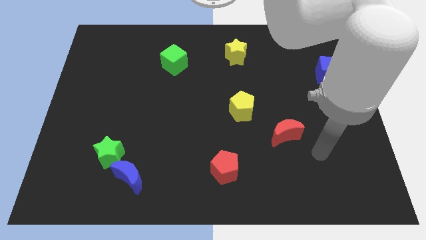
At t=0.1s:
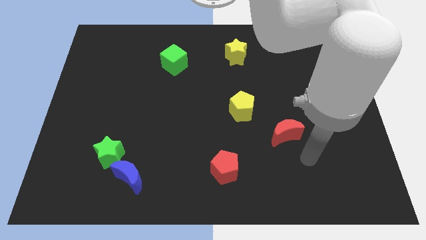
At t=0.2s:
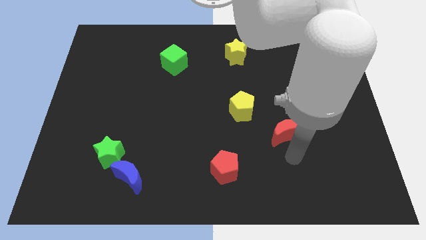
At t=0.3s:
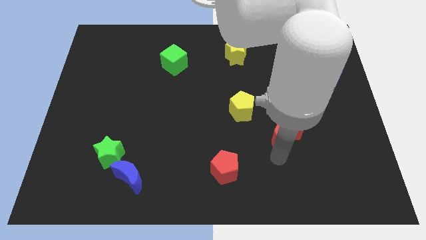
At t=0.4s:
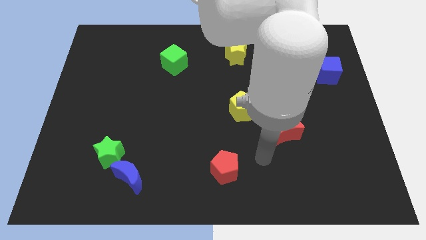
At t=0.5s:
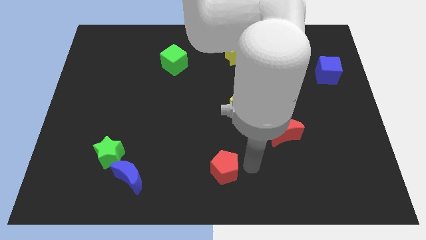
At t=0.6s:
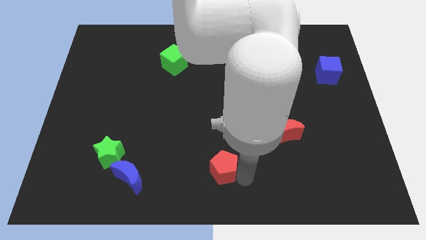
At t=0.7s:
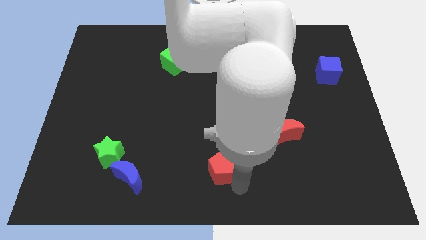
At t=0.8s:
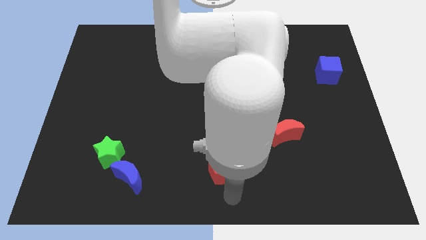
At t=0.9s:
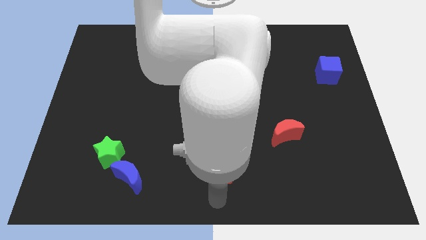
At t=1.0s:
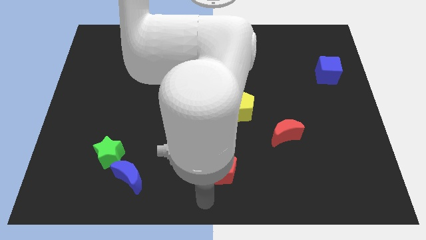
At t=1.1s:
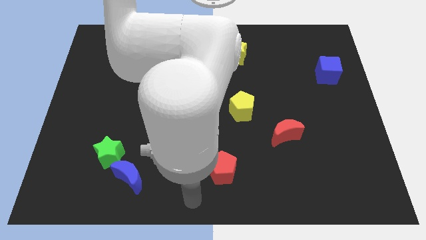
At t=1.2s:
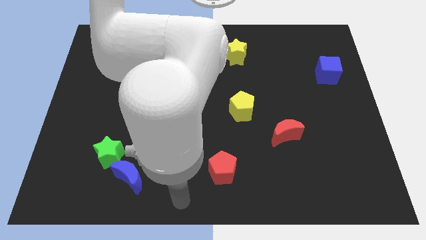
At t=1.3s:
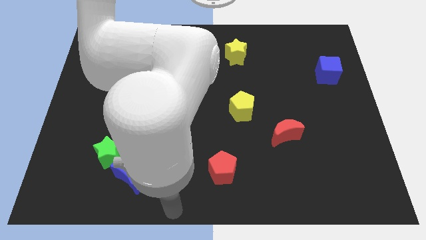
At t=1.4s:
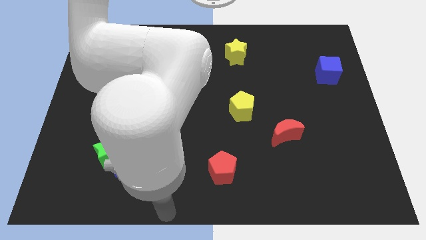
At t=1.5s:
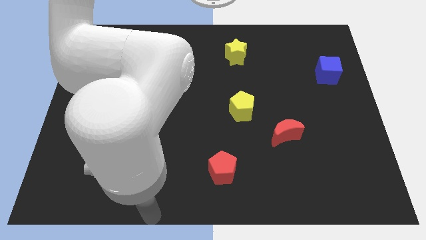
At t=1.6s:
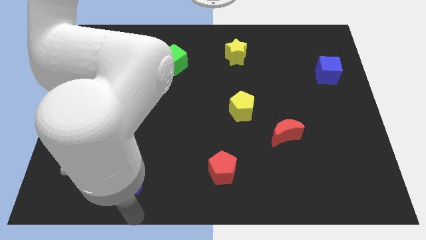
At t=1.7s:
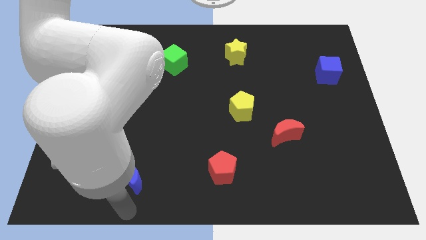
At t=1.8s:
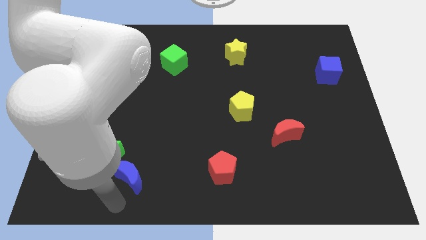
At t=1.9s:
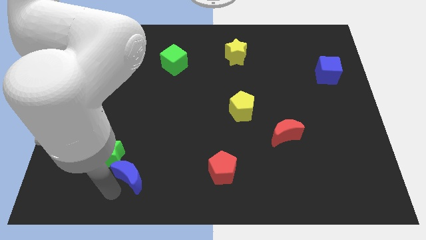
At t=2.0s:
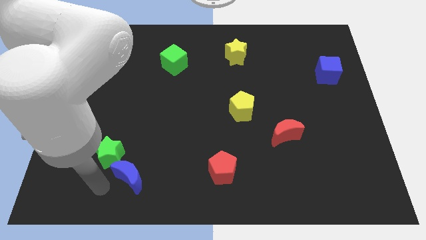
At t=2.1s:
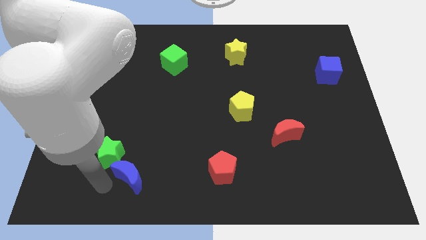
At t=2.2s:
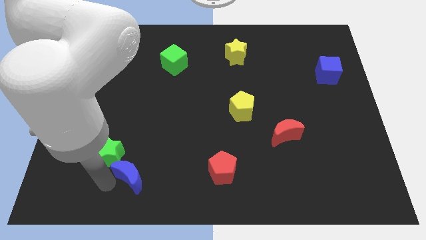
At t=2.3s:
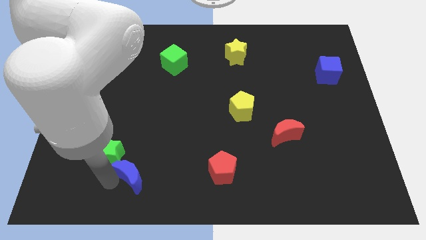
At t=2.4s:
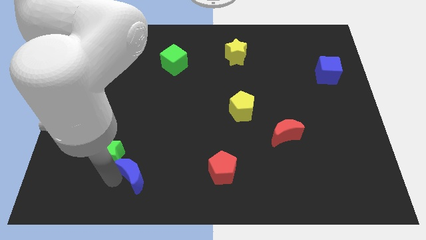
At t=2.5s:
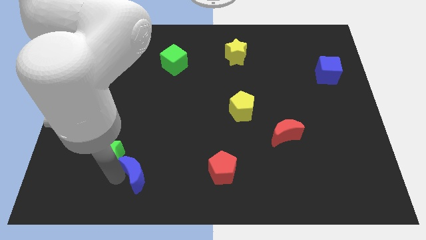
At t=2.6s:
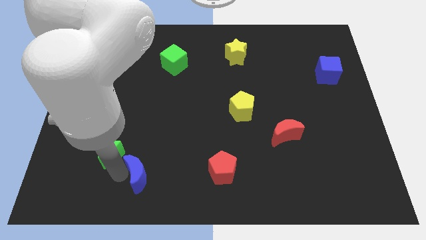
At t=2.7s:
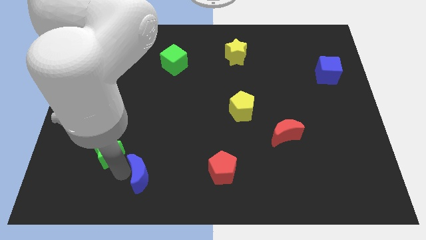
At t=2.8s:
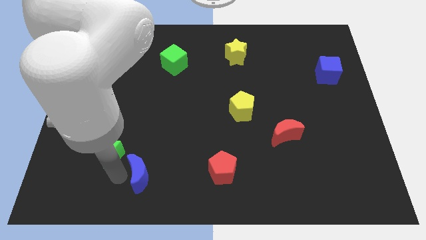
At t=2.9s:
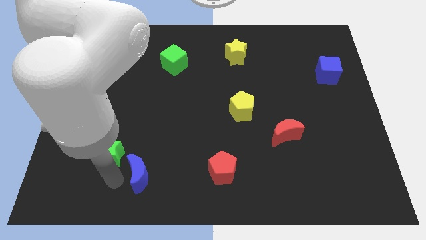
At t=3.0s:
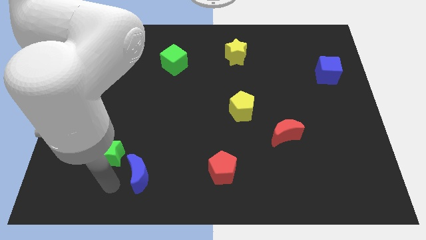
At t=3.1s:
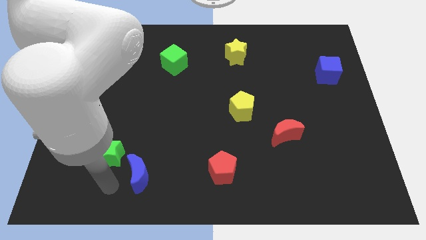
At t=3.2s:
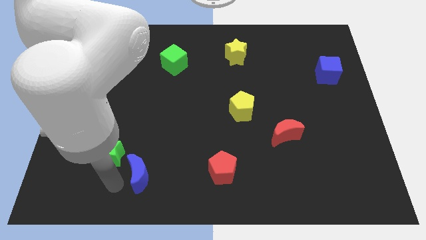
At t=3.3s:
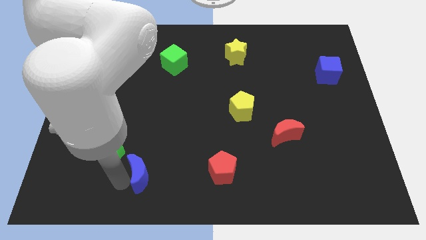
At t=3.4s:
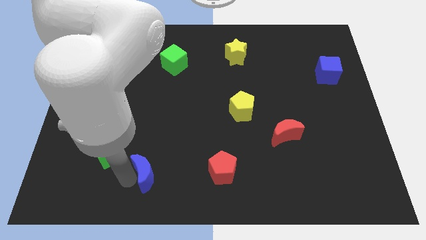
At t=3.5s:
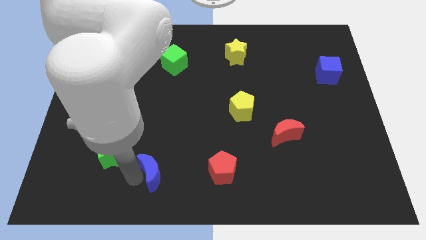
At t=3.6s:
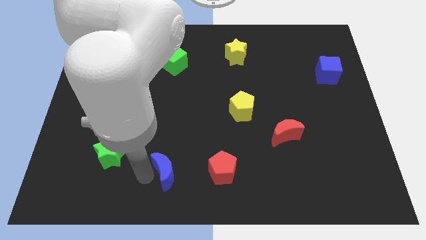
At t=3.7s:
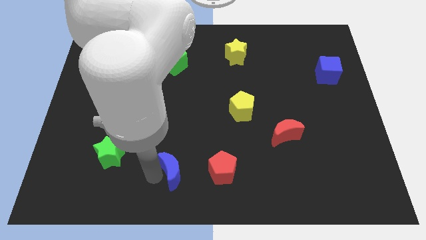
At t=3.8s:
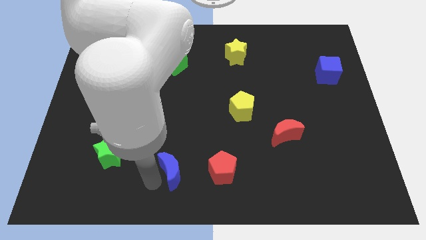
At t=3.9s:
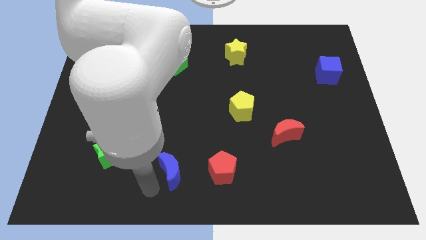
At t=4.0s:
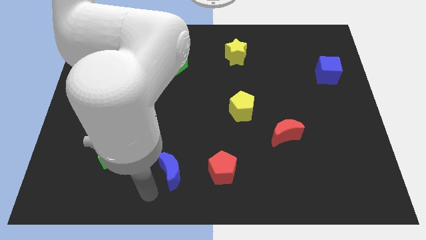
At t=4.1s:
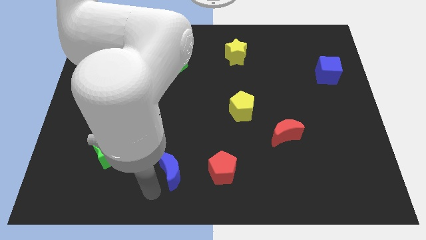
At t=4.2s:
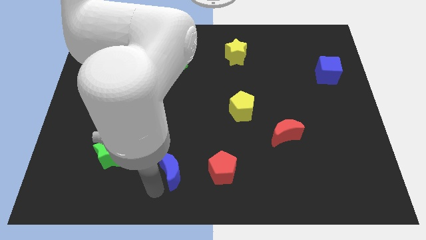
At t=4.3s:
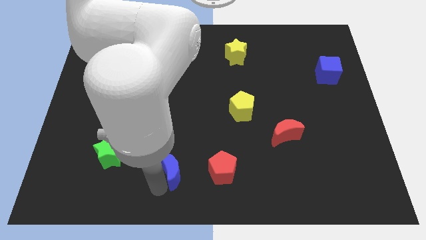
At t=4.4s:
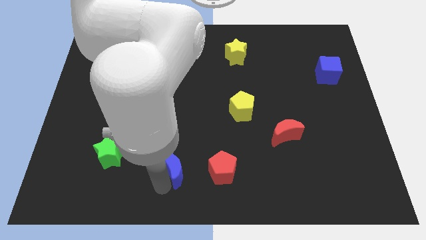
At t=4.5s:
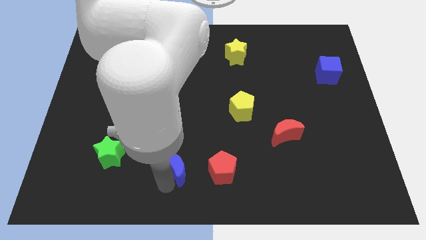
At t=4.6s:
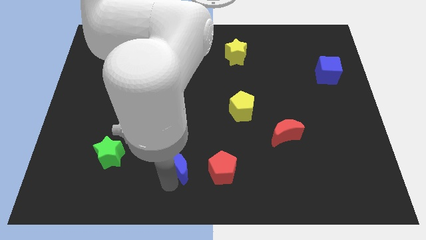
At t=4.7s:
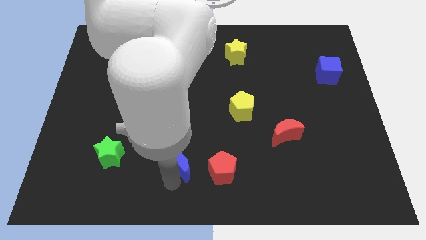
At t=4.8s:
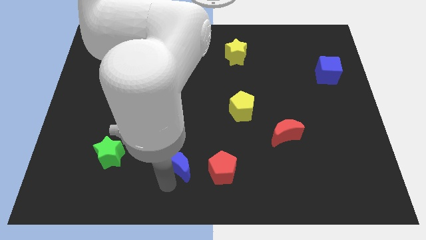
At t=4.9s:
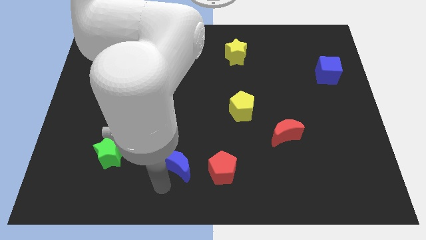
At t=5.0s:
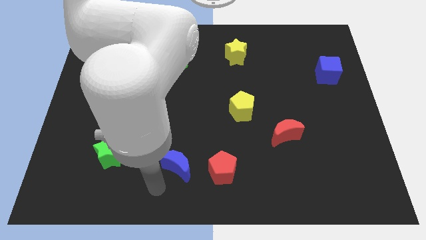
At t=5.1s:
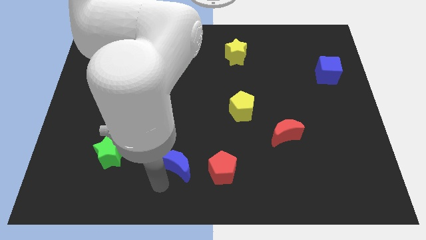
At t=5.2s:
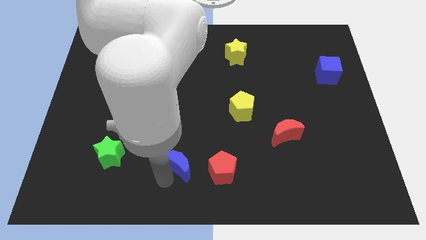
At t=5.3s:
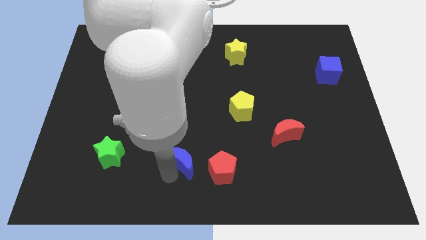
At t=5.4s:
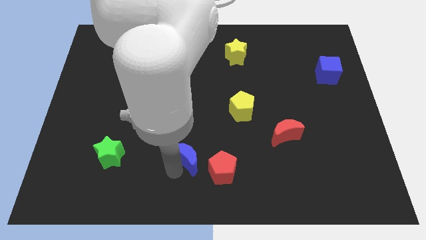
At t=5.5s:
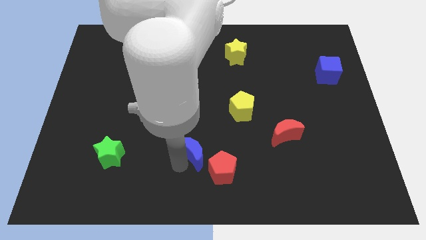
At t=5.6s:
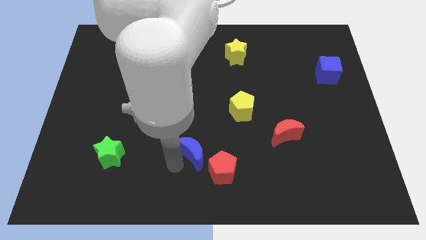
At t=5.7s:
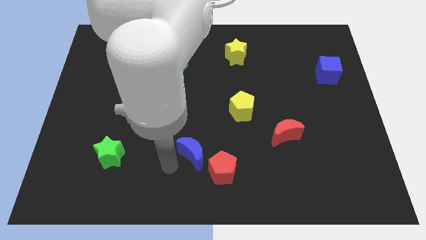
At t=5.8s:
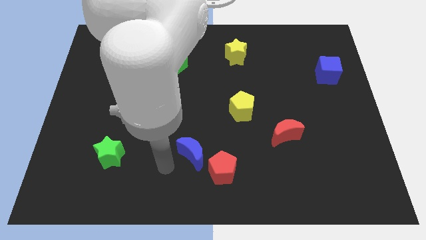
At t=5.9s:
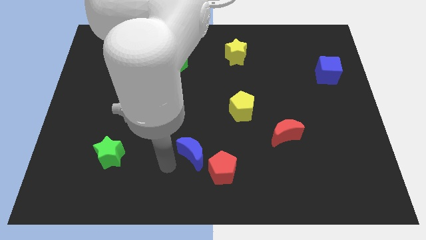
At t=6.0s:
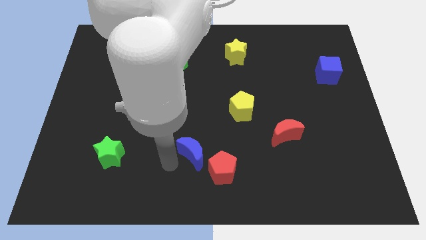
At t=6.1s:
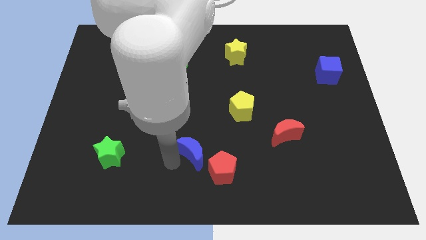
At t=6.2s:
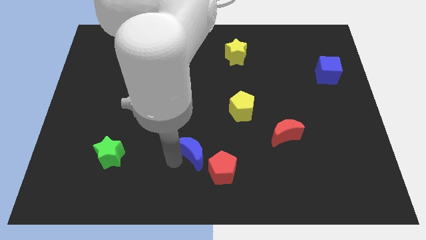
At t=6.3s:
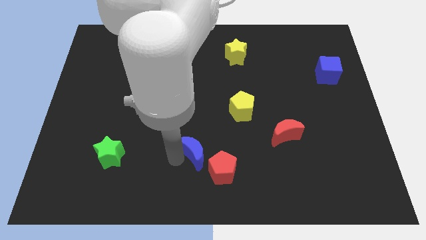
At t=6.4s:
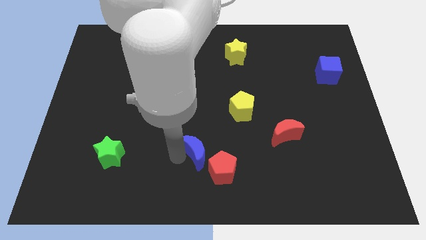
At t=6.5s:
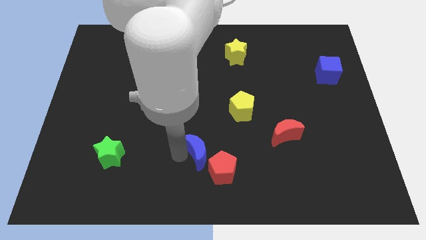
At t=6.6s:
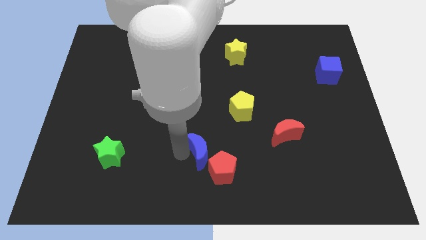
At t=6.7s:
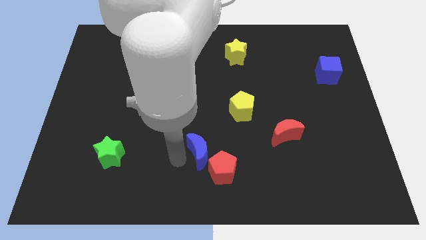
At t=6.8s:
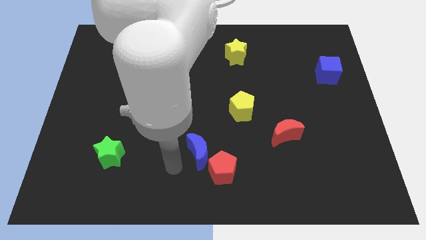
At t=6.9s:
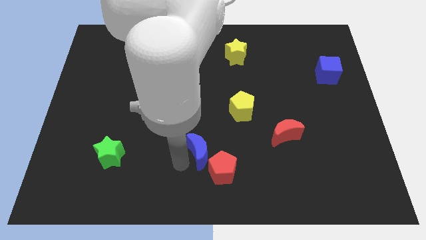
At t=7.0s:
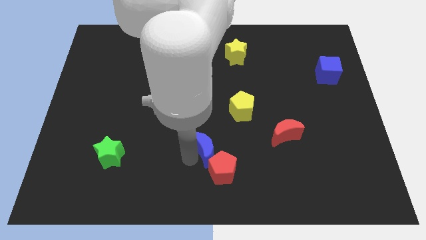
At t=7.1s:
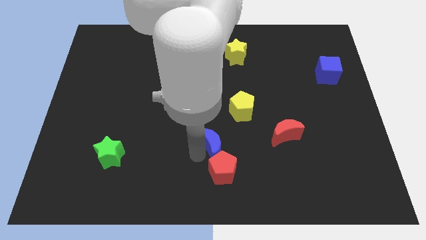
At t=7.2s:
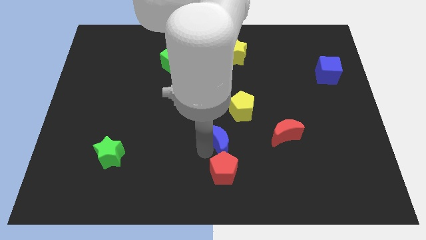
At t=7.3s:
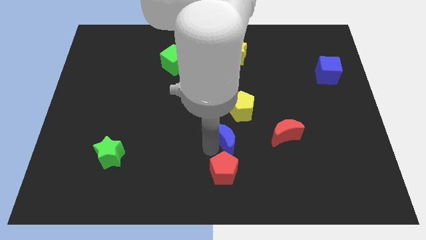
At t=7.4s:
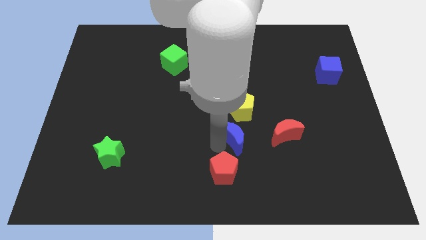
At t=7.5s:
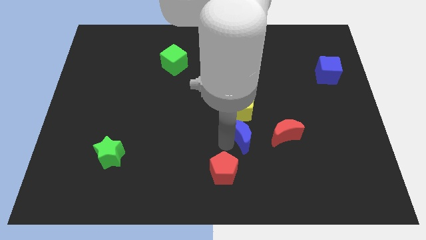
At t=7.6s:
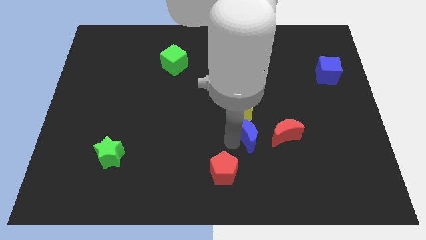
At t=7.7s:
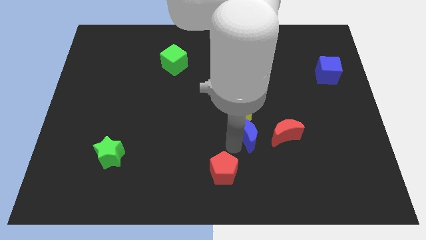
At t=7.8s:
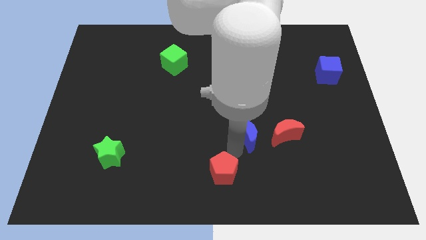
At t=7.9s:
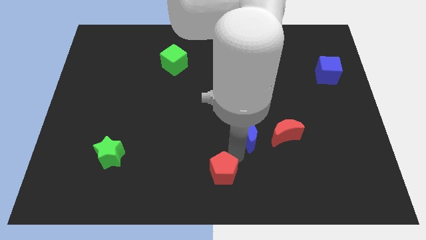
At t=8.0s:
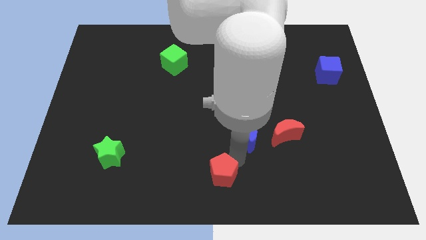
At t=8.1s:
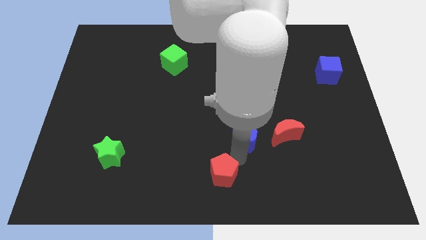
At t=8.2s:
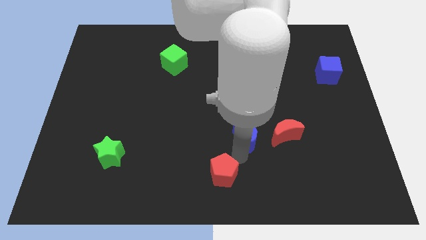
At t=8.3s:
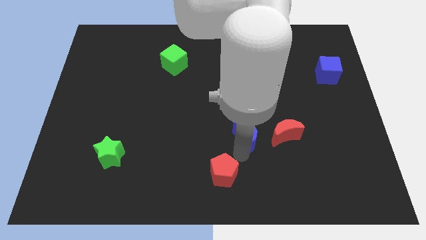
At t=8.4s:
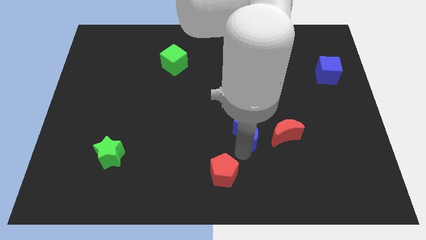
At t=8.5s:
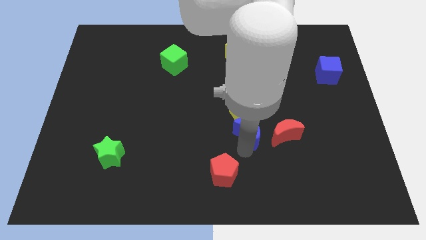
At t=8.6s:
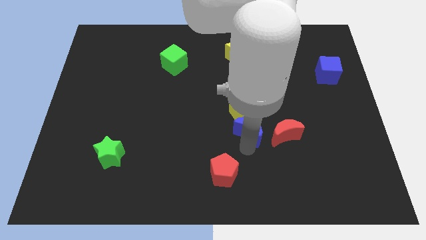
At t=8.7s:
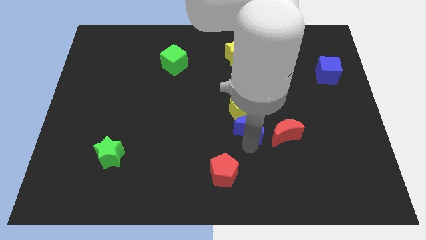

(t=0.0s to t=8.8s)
move the blue moon to the top left side of the red moon
